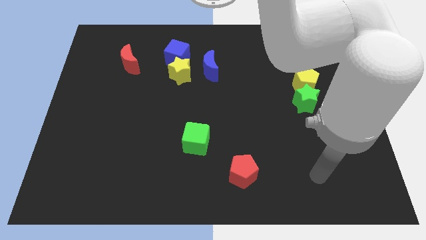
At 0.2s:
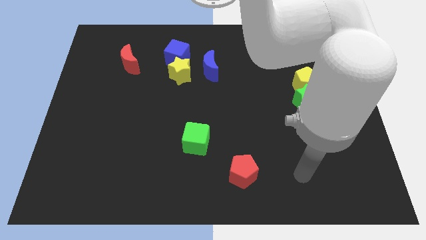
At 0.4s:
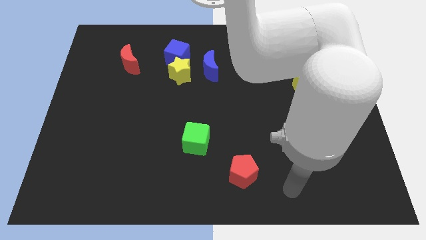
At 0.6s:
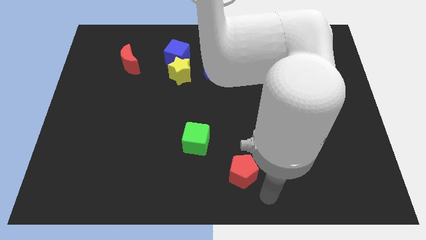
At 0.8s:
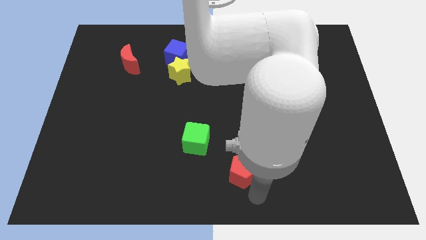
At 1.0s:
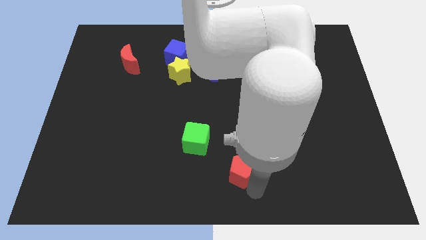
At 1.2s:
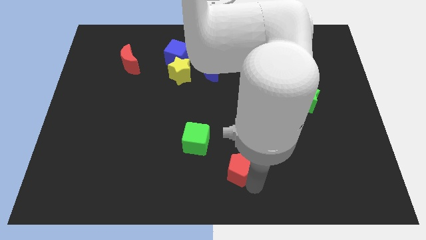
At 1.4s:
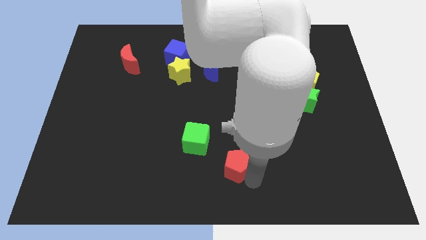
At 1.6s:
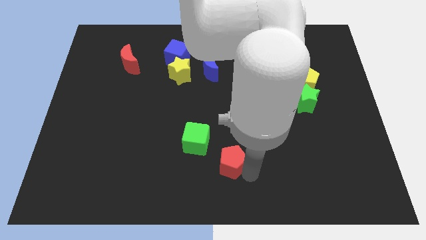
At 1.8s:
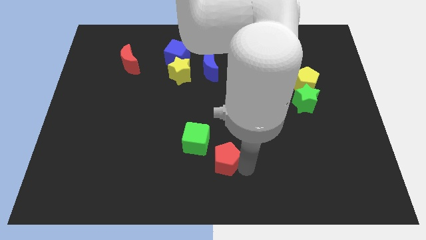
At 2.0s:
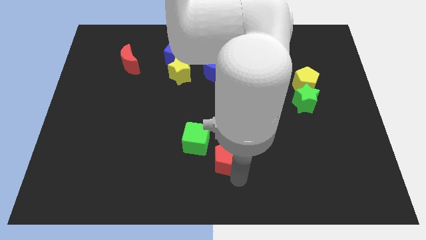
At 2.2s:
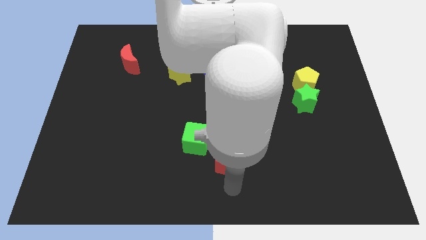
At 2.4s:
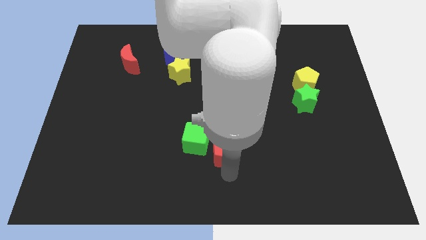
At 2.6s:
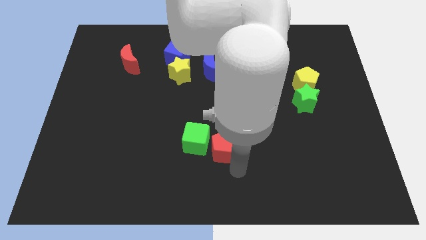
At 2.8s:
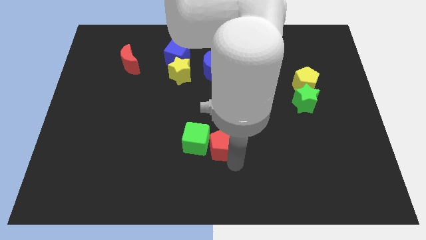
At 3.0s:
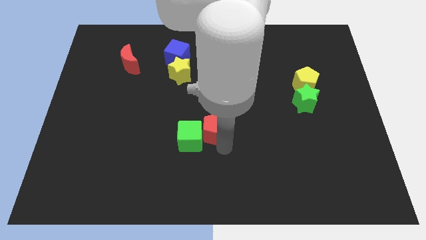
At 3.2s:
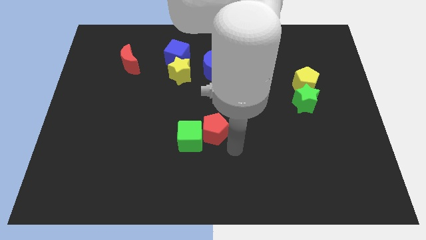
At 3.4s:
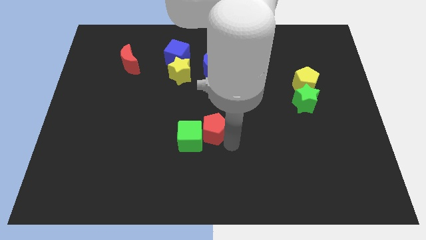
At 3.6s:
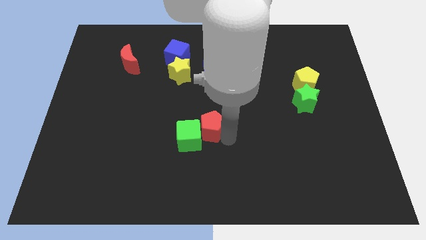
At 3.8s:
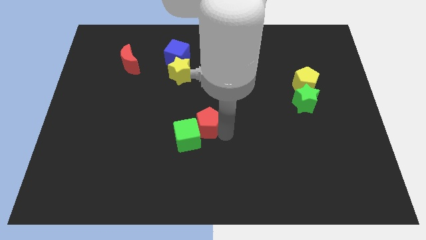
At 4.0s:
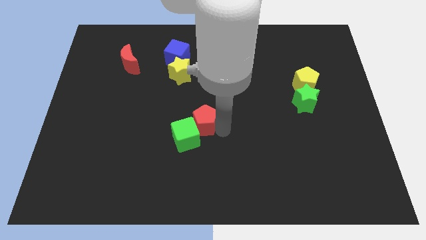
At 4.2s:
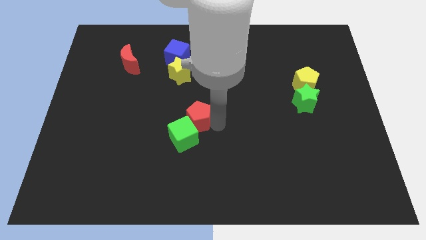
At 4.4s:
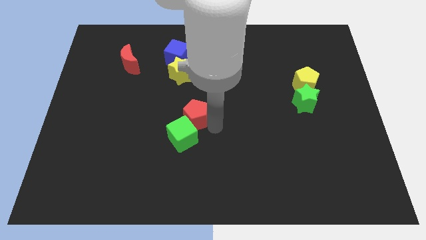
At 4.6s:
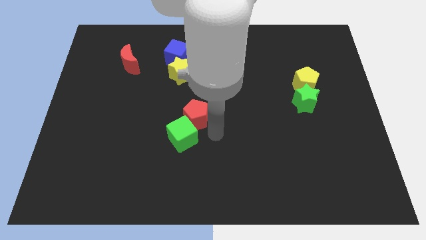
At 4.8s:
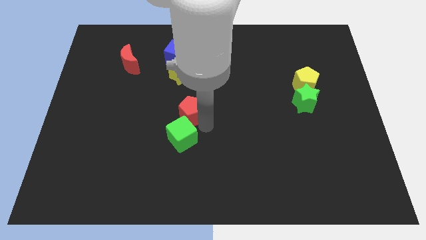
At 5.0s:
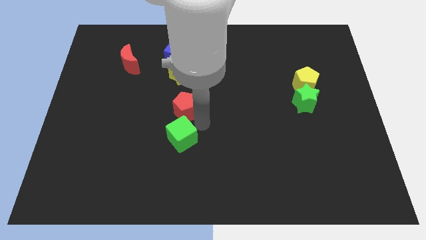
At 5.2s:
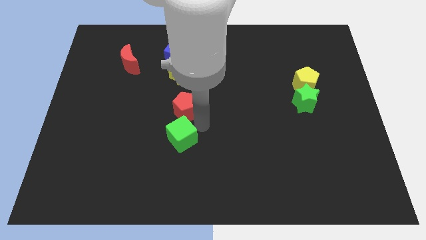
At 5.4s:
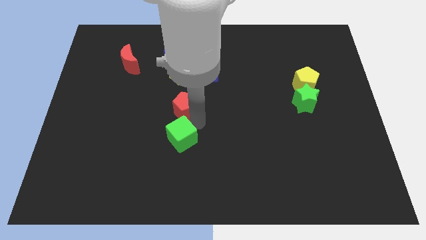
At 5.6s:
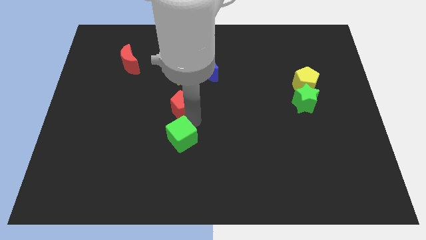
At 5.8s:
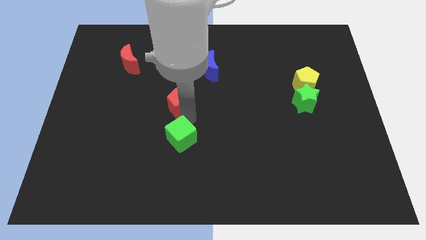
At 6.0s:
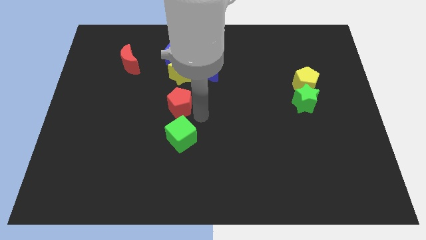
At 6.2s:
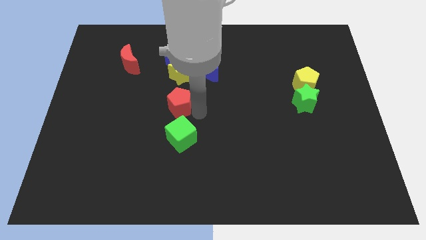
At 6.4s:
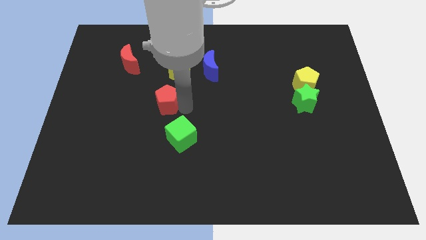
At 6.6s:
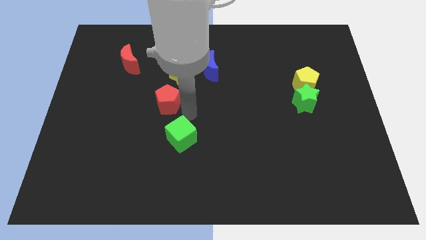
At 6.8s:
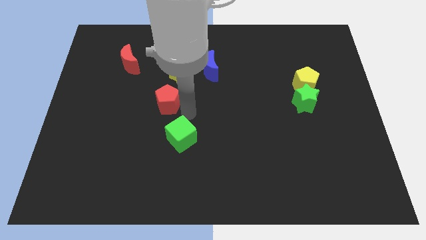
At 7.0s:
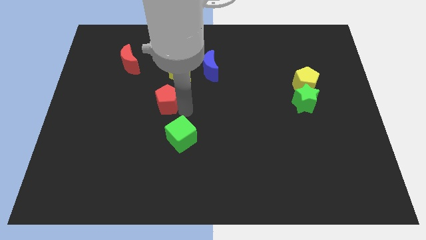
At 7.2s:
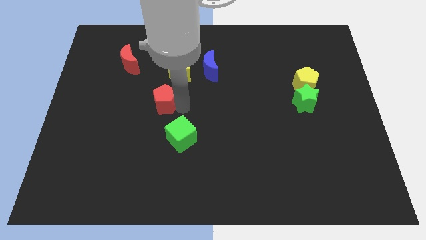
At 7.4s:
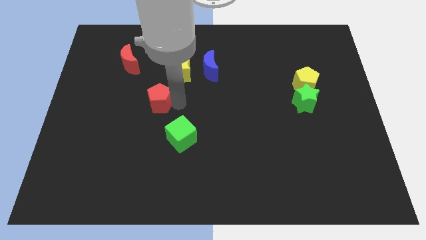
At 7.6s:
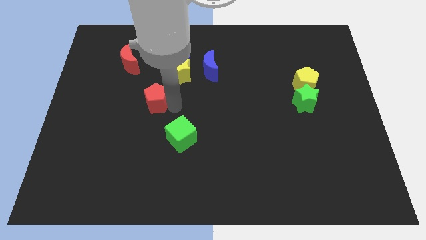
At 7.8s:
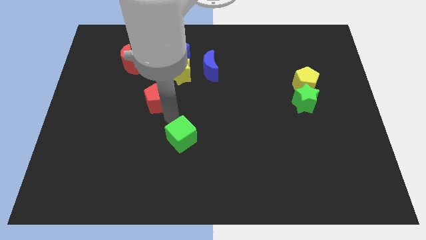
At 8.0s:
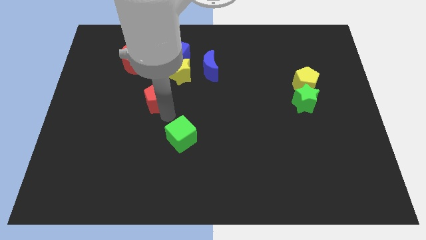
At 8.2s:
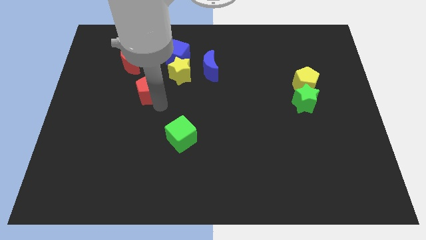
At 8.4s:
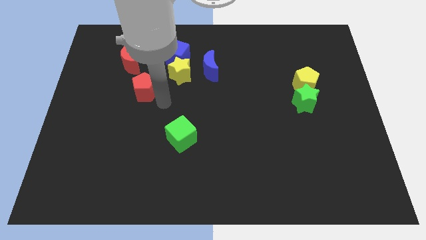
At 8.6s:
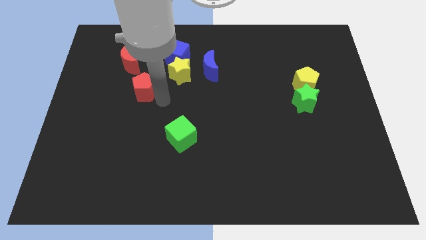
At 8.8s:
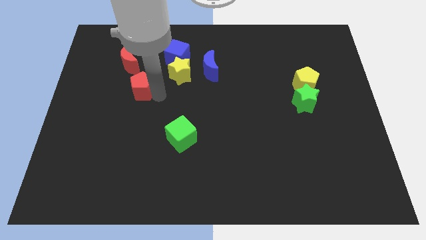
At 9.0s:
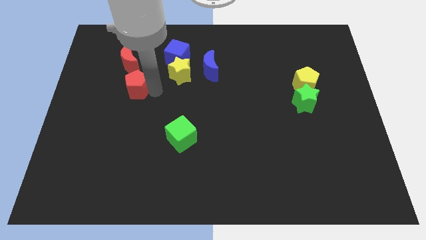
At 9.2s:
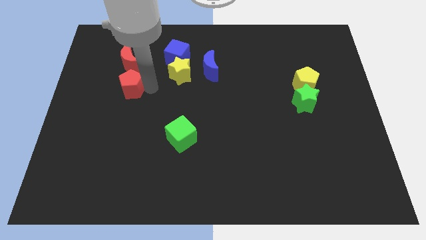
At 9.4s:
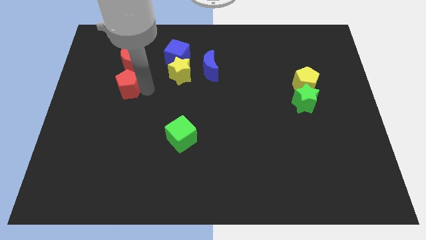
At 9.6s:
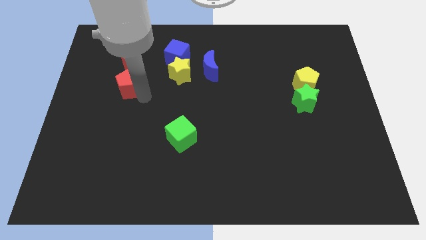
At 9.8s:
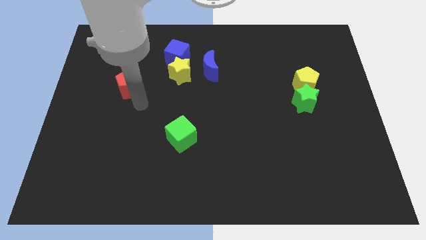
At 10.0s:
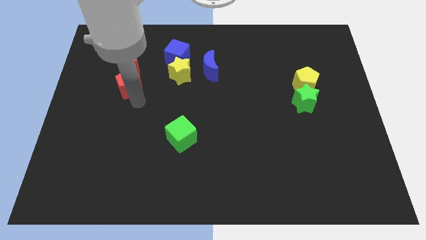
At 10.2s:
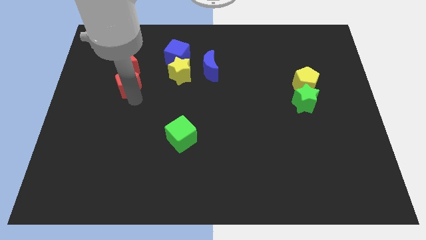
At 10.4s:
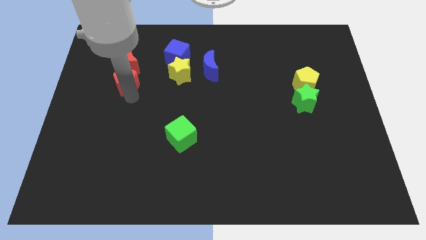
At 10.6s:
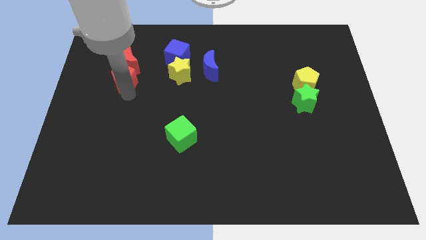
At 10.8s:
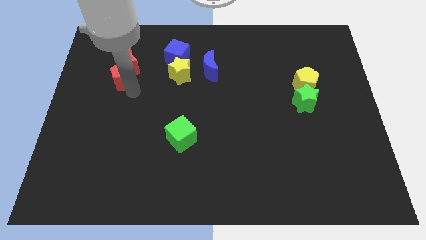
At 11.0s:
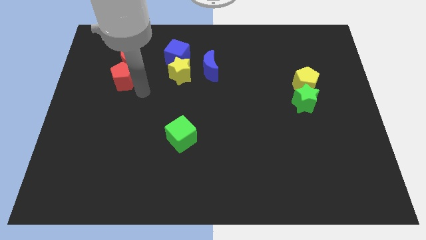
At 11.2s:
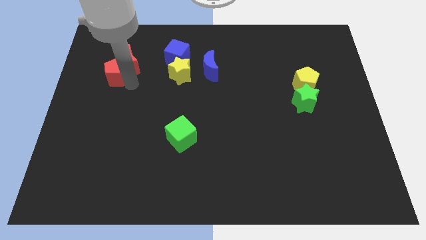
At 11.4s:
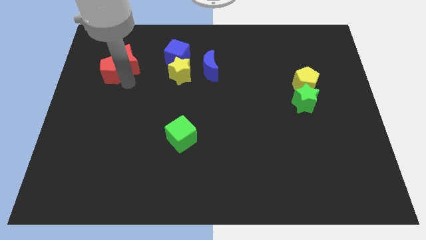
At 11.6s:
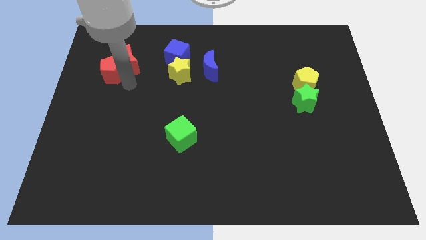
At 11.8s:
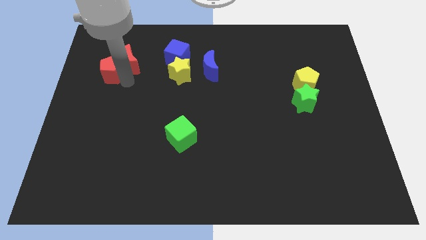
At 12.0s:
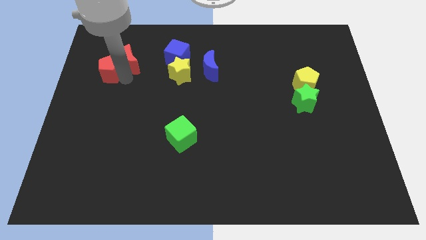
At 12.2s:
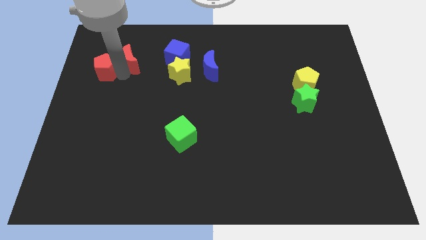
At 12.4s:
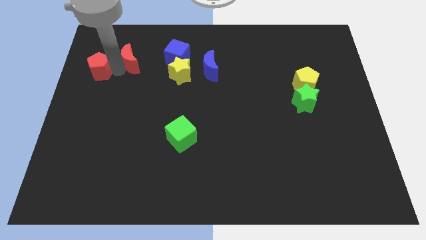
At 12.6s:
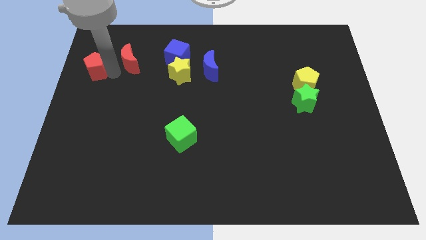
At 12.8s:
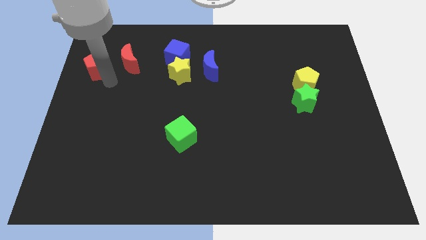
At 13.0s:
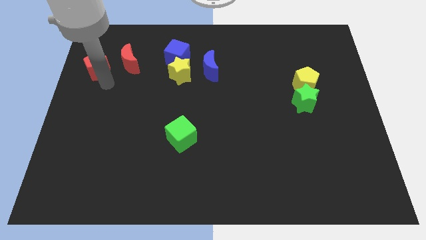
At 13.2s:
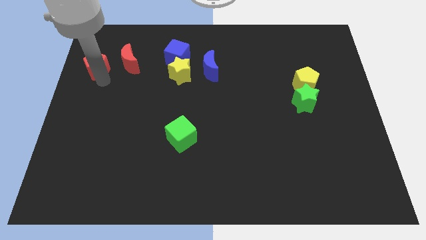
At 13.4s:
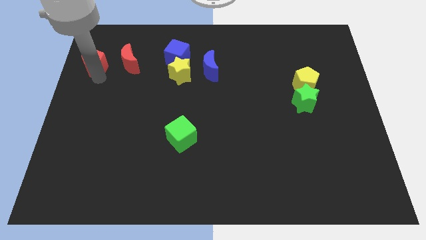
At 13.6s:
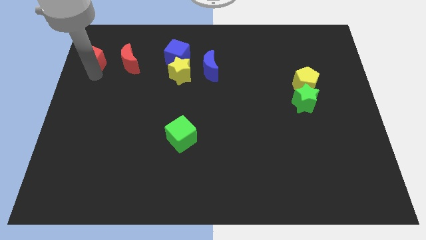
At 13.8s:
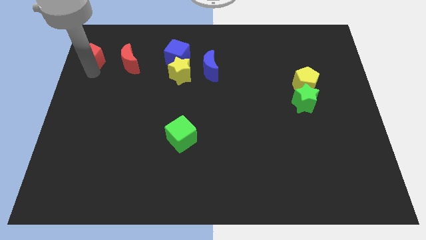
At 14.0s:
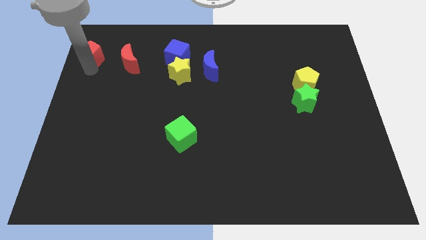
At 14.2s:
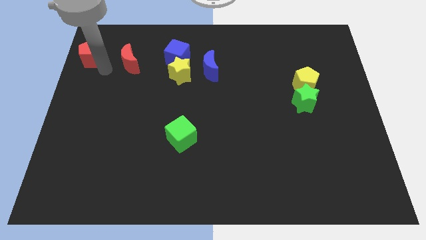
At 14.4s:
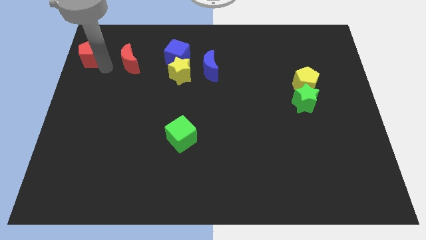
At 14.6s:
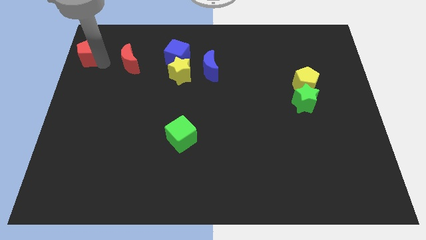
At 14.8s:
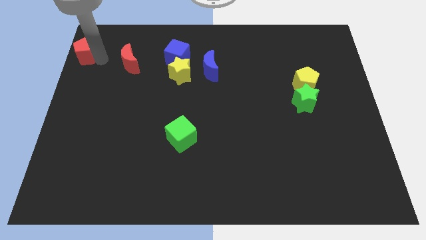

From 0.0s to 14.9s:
slide the red pentagon to the upper left corner
